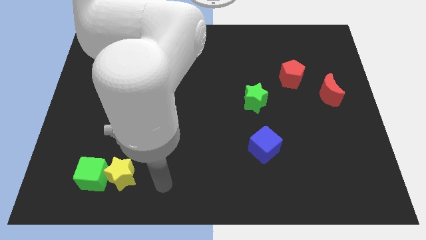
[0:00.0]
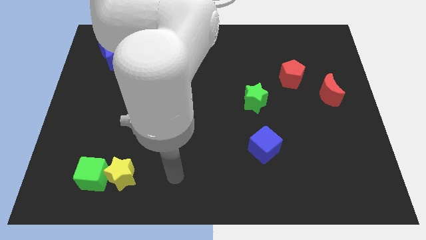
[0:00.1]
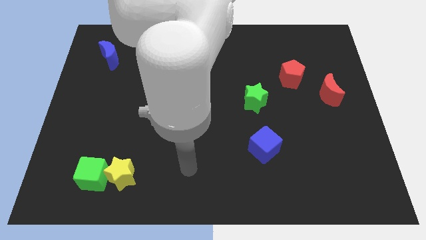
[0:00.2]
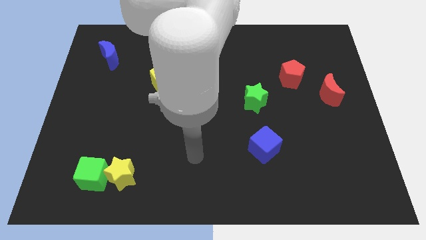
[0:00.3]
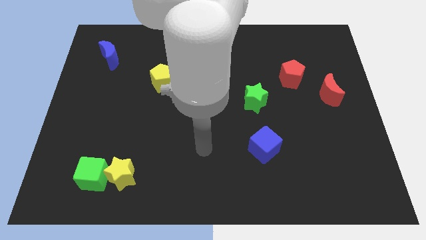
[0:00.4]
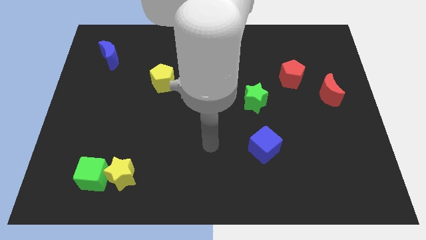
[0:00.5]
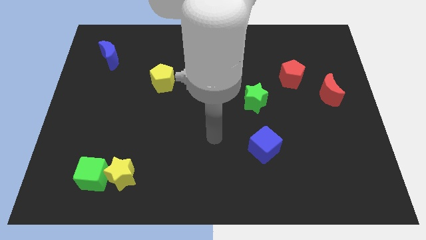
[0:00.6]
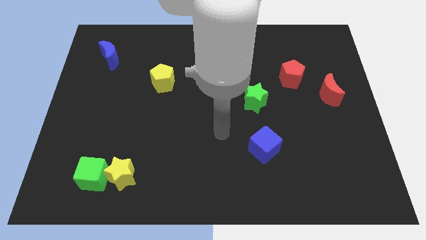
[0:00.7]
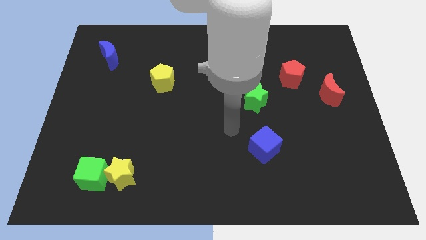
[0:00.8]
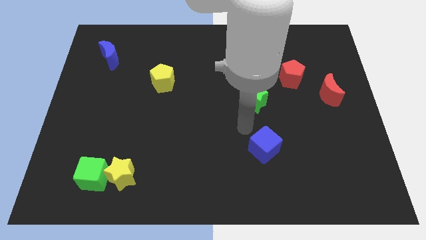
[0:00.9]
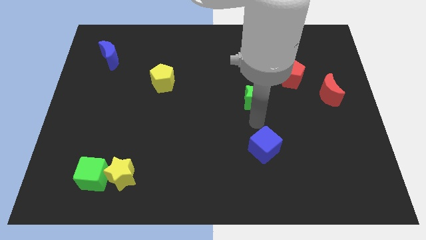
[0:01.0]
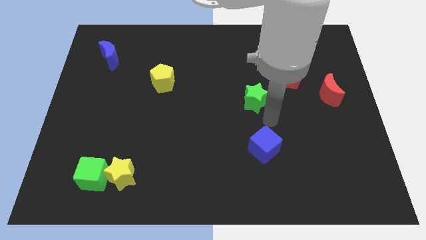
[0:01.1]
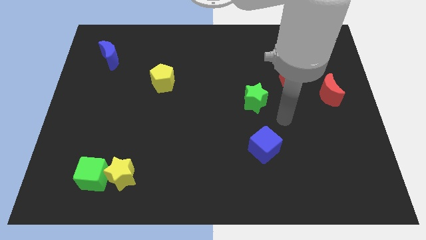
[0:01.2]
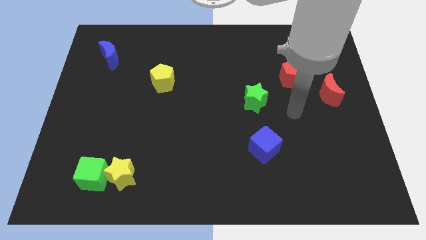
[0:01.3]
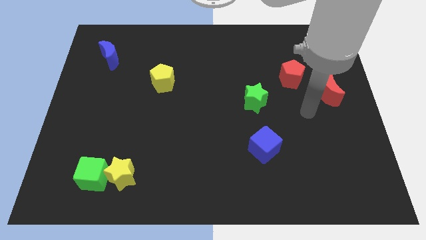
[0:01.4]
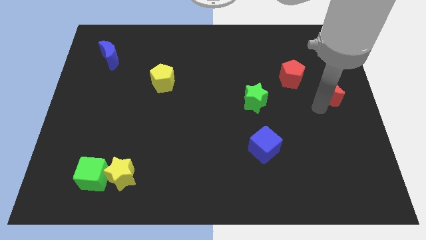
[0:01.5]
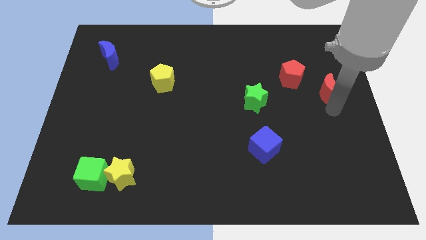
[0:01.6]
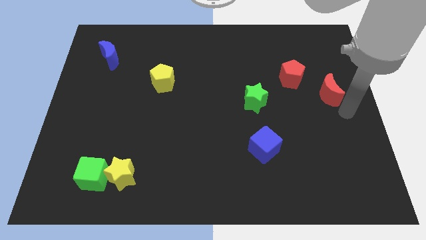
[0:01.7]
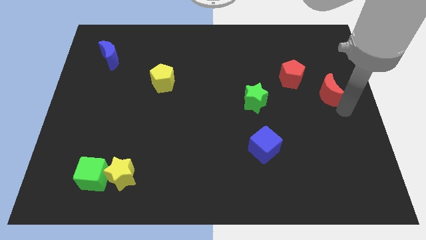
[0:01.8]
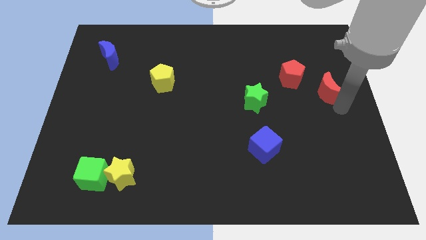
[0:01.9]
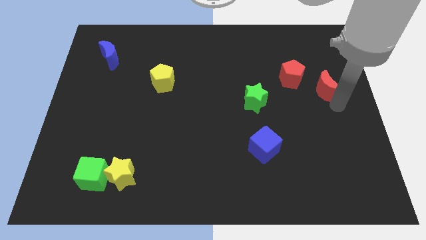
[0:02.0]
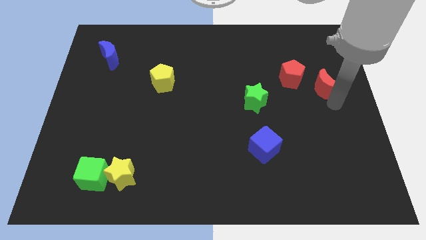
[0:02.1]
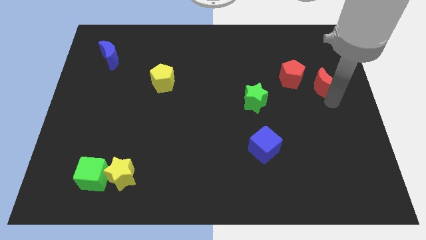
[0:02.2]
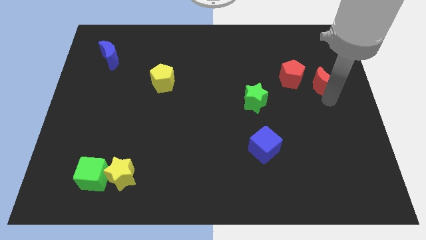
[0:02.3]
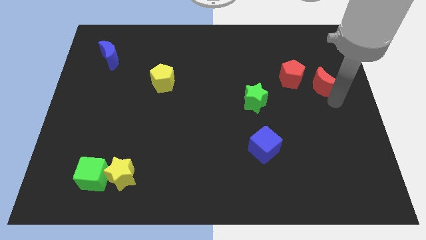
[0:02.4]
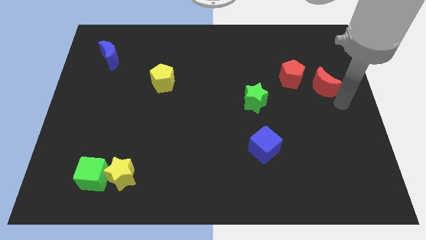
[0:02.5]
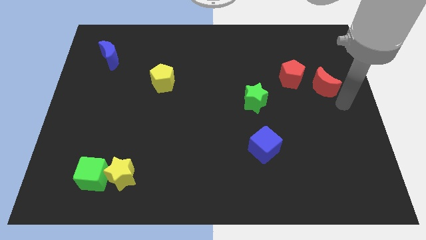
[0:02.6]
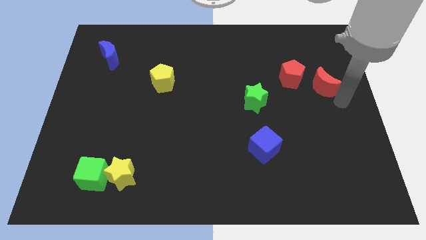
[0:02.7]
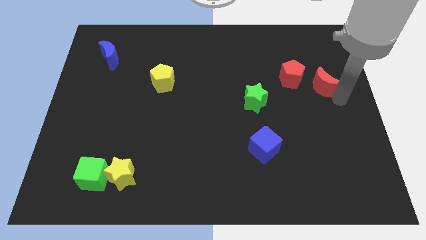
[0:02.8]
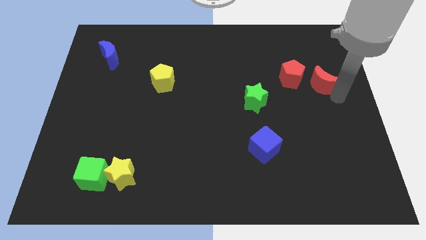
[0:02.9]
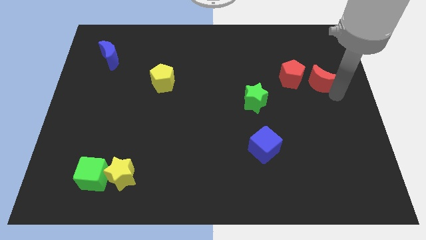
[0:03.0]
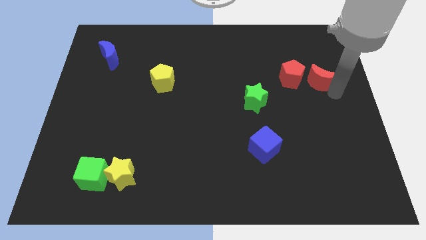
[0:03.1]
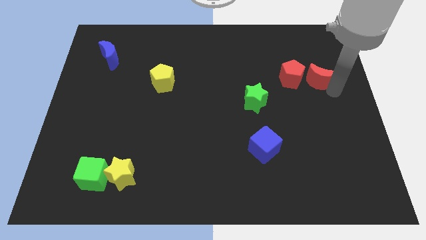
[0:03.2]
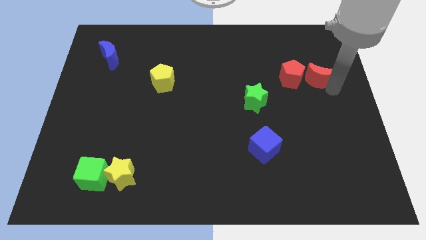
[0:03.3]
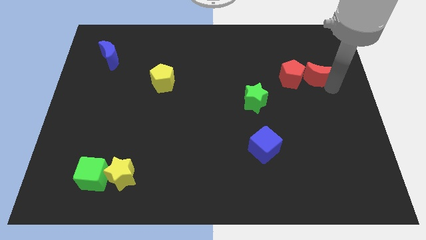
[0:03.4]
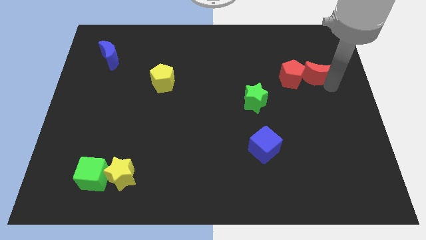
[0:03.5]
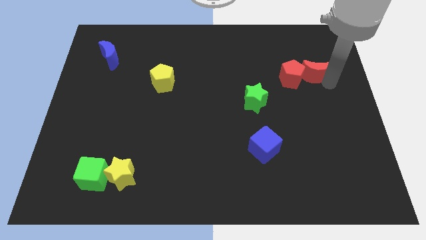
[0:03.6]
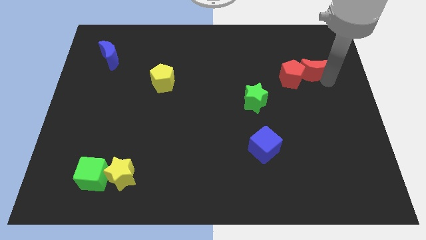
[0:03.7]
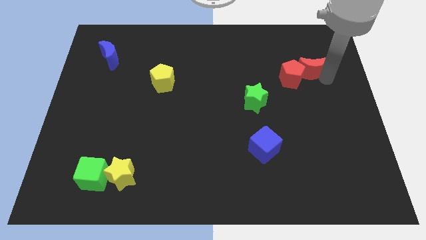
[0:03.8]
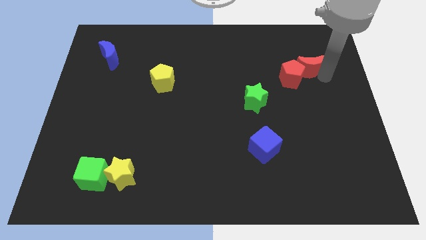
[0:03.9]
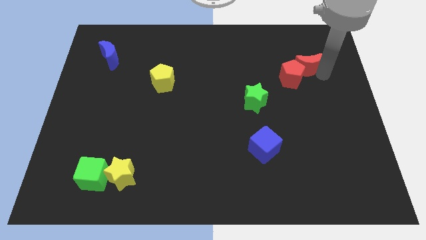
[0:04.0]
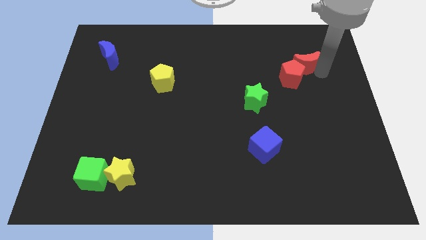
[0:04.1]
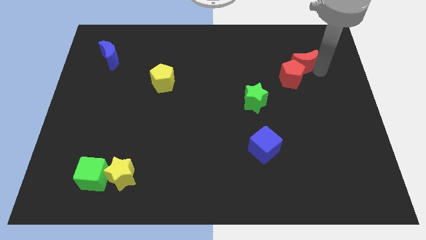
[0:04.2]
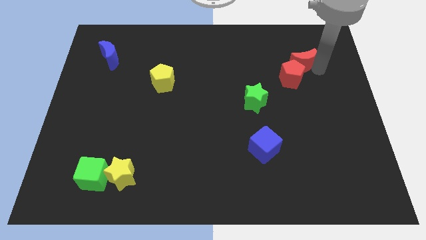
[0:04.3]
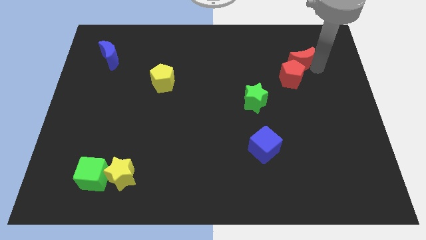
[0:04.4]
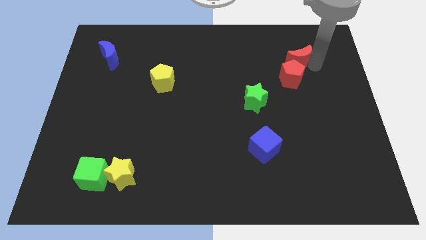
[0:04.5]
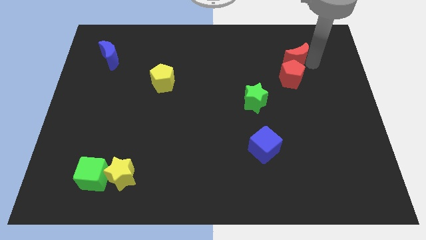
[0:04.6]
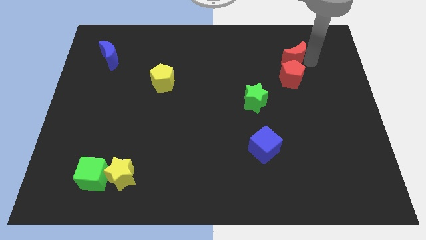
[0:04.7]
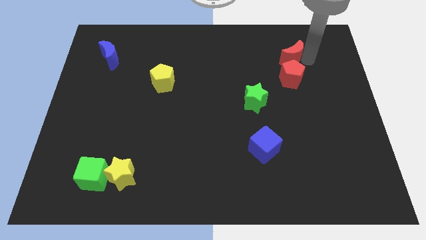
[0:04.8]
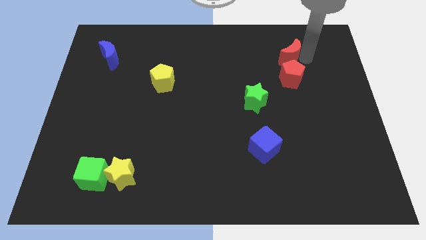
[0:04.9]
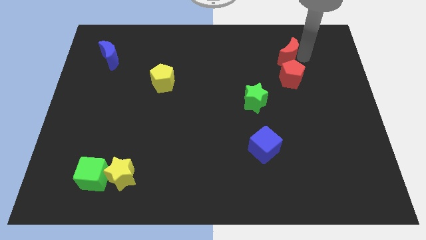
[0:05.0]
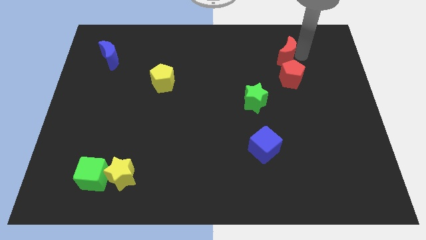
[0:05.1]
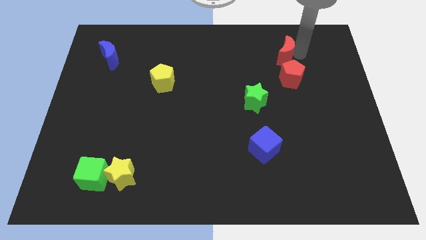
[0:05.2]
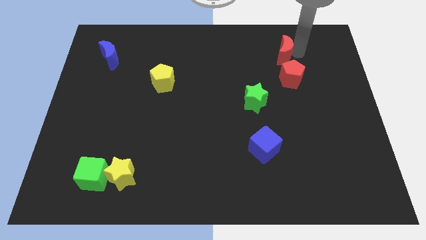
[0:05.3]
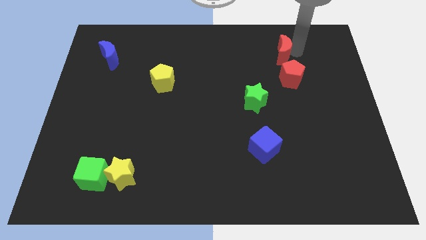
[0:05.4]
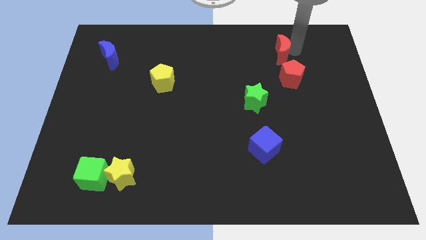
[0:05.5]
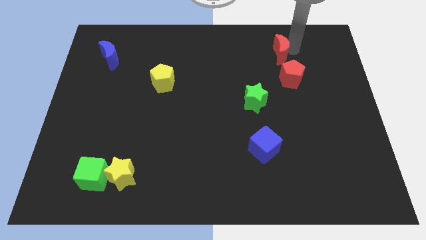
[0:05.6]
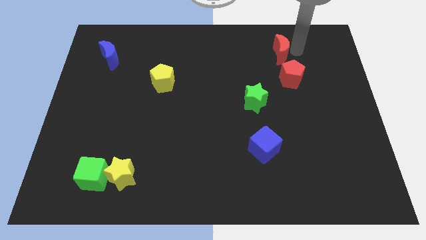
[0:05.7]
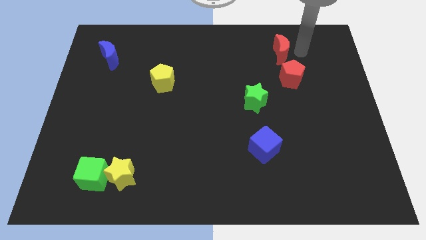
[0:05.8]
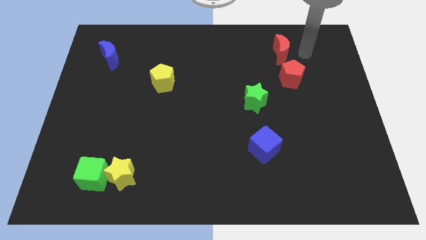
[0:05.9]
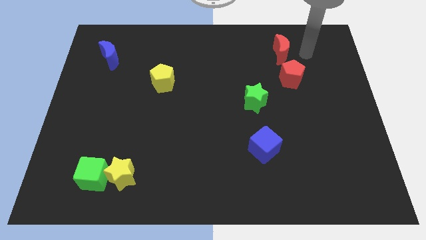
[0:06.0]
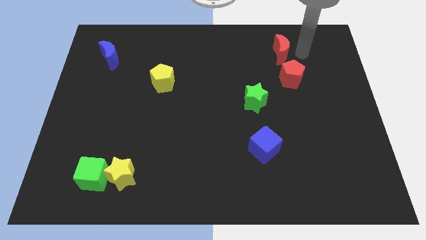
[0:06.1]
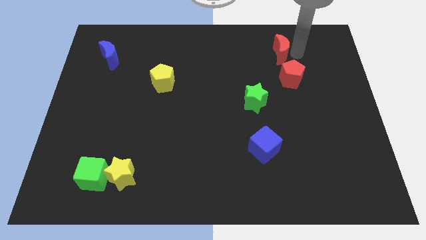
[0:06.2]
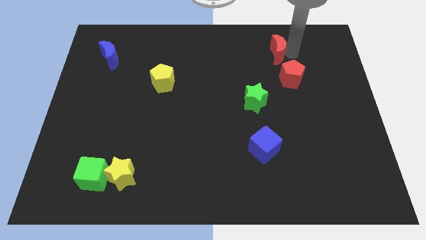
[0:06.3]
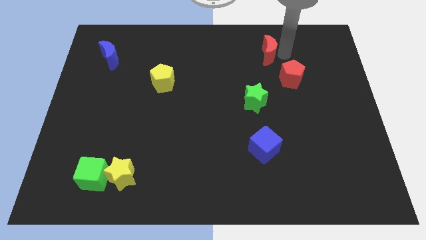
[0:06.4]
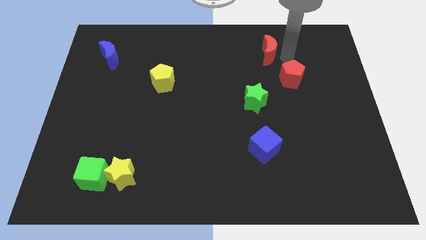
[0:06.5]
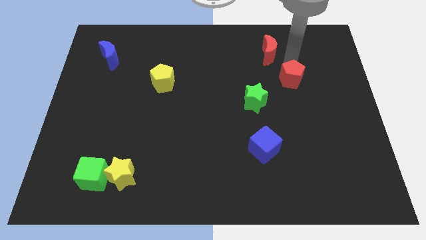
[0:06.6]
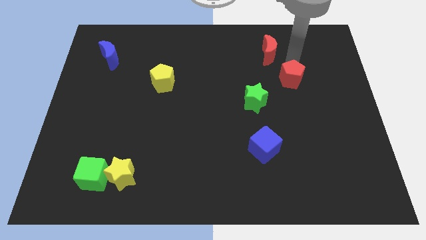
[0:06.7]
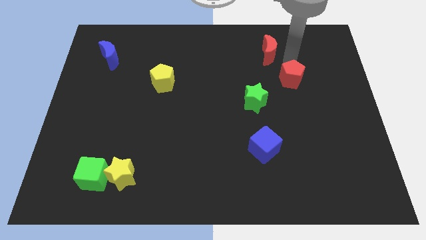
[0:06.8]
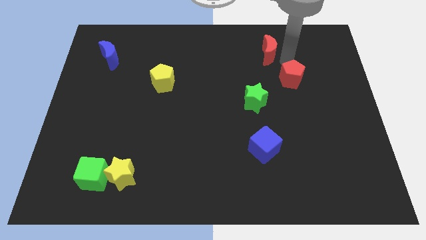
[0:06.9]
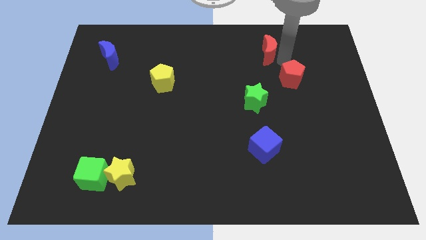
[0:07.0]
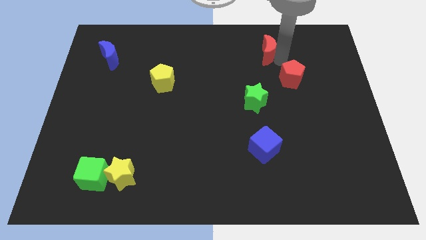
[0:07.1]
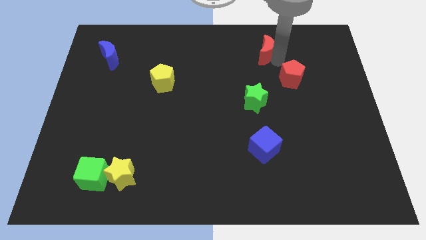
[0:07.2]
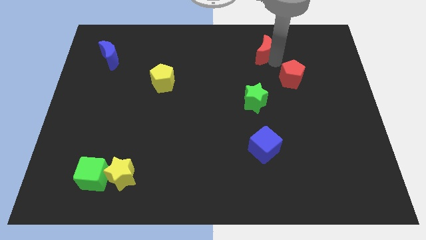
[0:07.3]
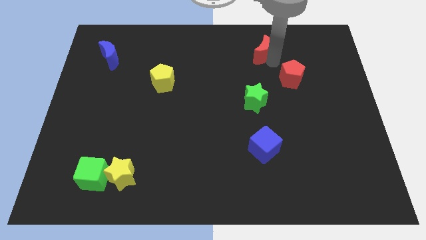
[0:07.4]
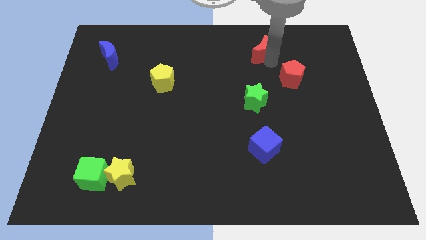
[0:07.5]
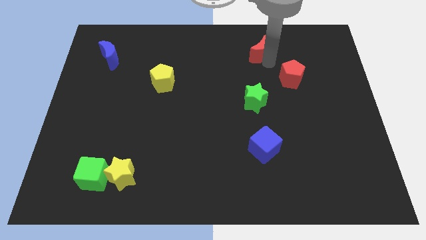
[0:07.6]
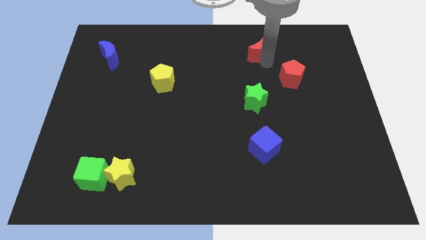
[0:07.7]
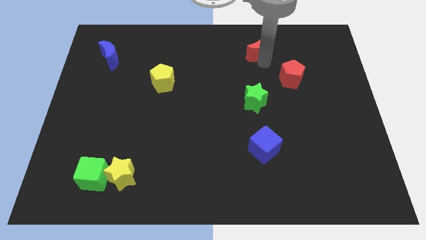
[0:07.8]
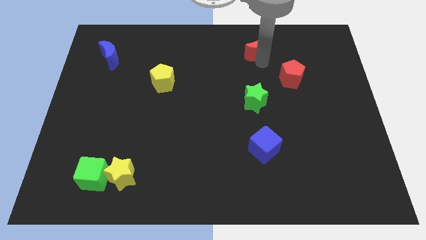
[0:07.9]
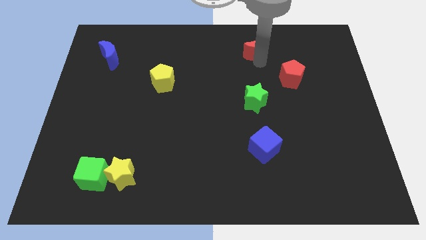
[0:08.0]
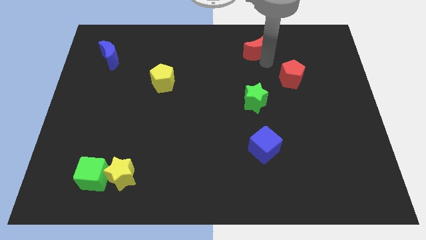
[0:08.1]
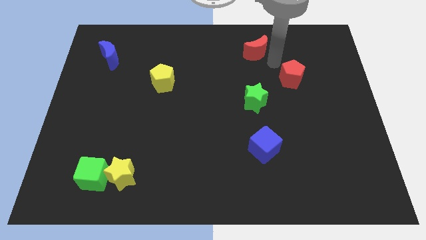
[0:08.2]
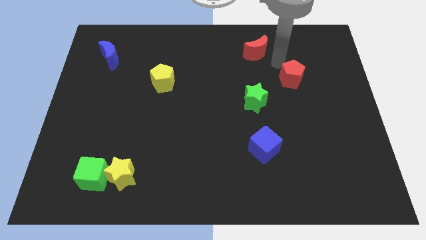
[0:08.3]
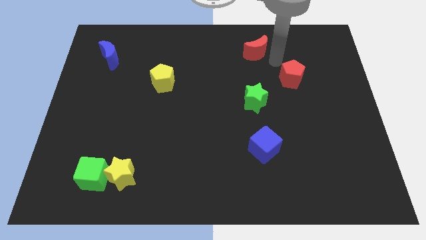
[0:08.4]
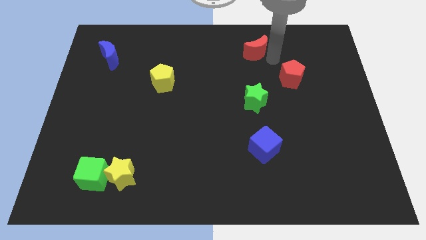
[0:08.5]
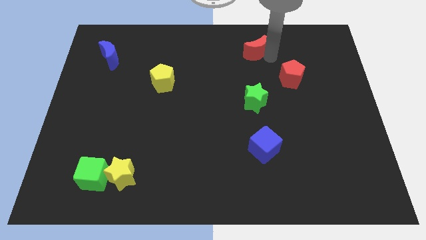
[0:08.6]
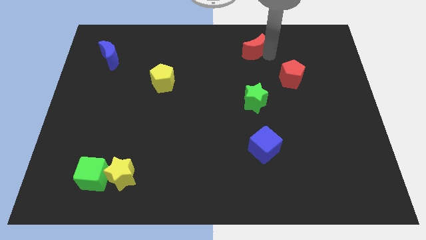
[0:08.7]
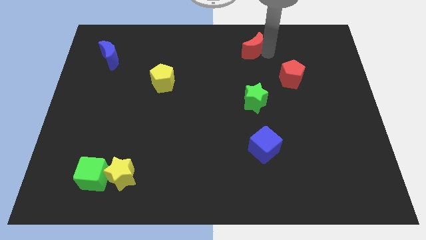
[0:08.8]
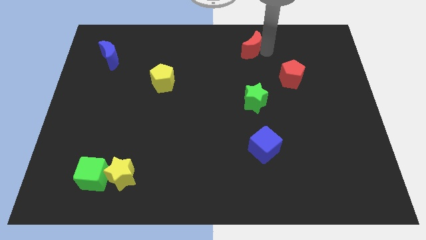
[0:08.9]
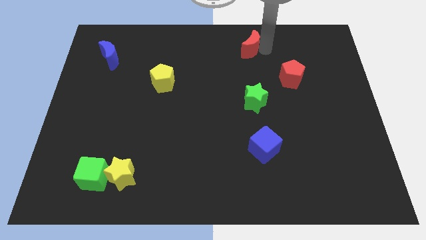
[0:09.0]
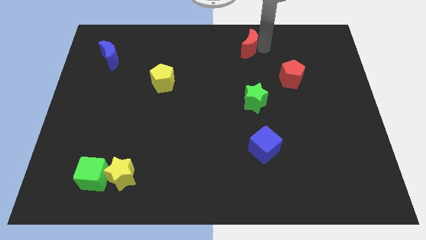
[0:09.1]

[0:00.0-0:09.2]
move the red moon to the top
